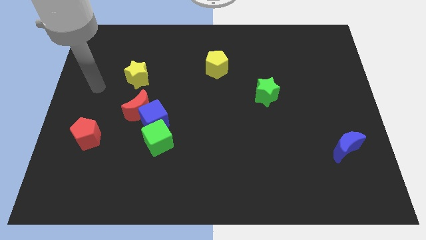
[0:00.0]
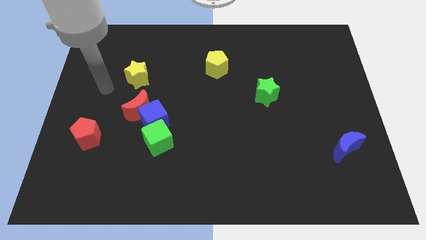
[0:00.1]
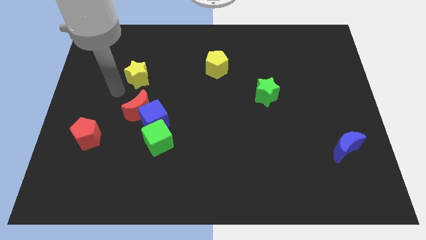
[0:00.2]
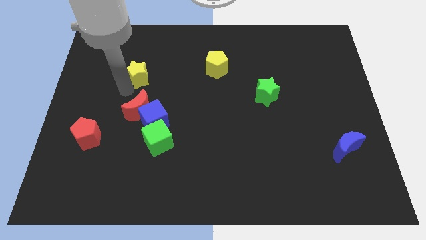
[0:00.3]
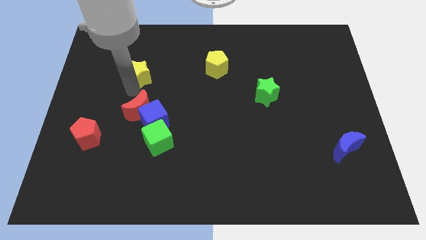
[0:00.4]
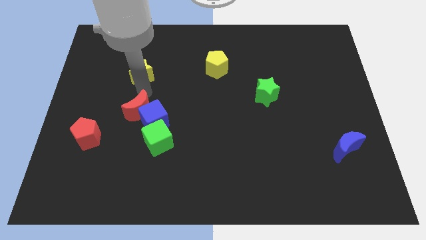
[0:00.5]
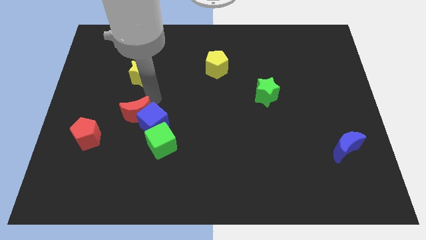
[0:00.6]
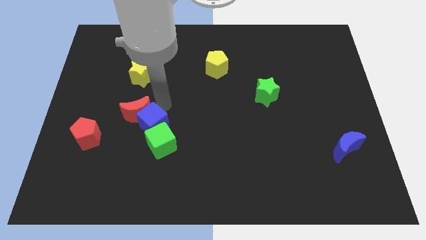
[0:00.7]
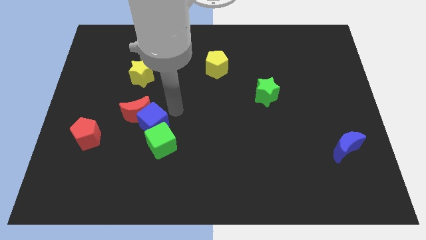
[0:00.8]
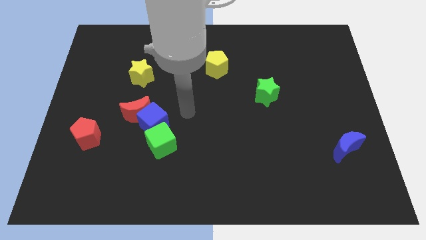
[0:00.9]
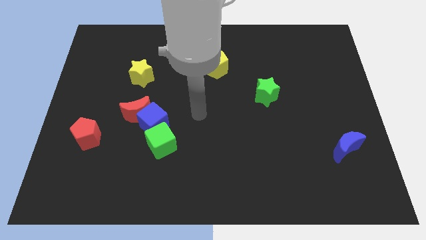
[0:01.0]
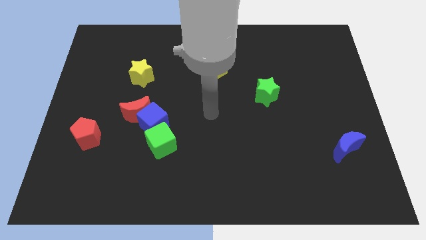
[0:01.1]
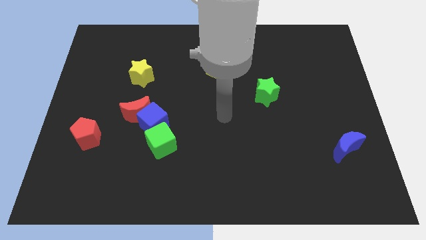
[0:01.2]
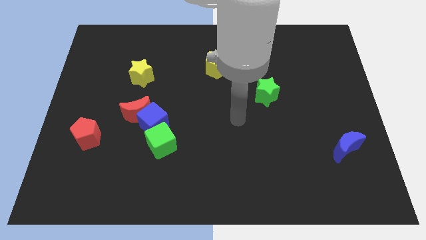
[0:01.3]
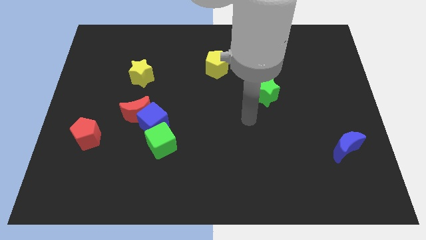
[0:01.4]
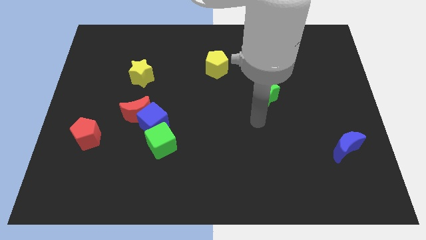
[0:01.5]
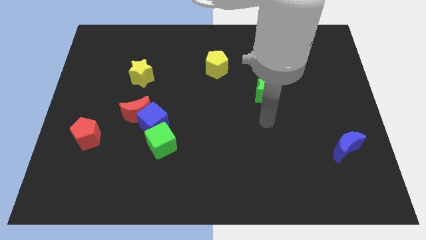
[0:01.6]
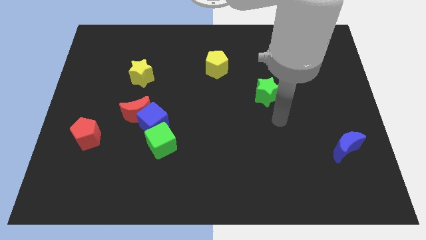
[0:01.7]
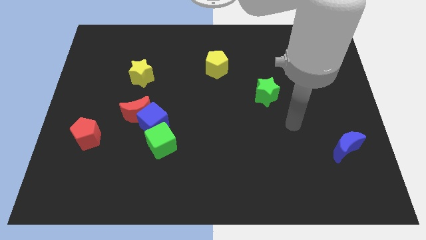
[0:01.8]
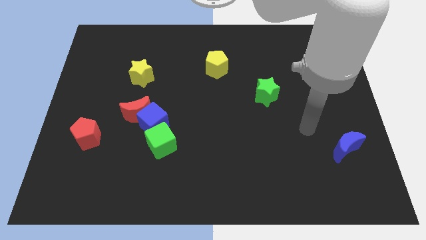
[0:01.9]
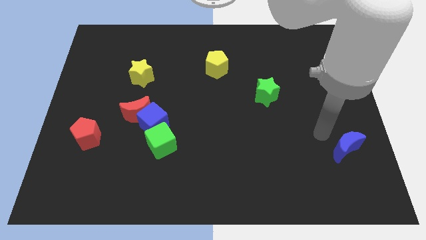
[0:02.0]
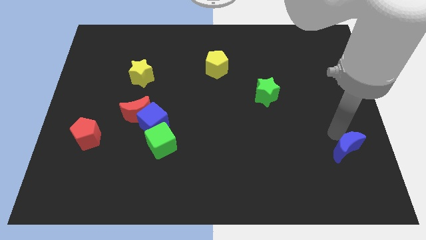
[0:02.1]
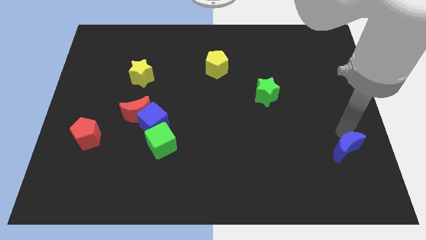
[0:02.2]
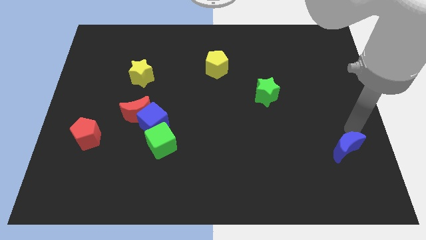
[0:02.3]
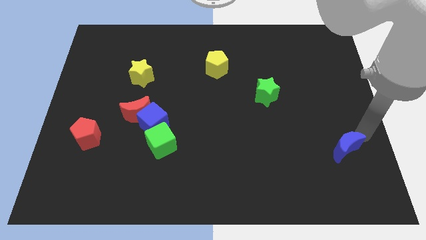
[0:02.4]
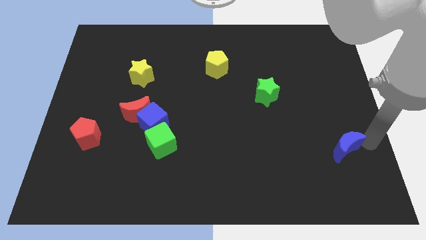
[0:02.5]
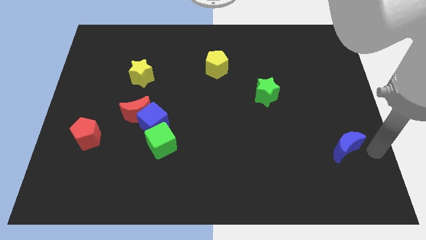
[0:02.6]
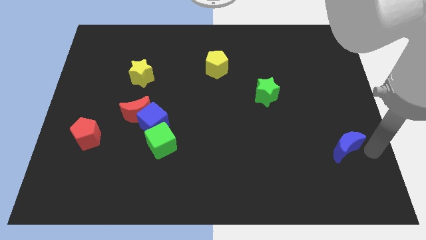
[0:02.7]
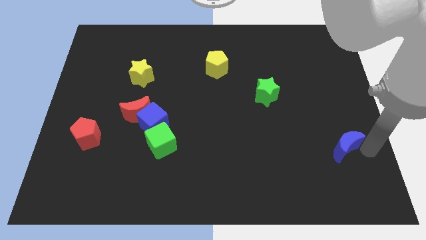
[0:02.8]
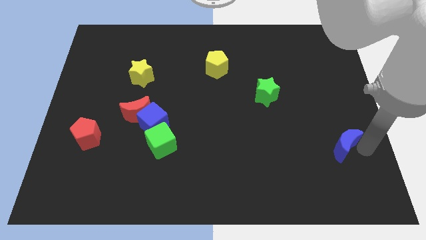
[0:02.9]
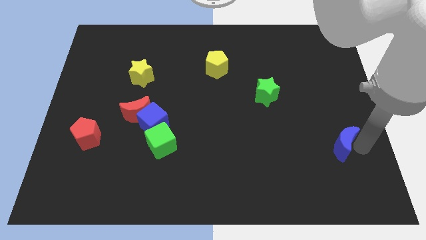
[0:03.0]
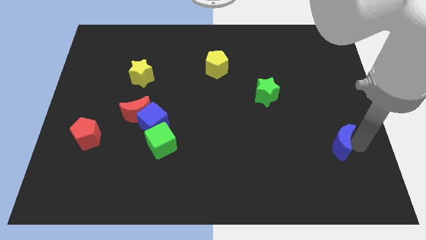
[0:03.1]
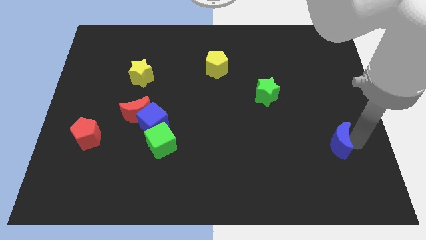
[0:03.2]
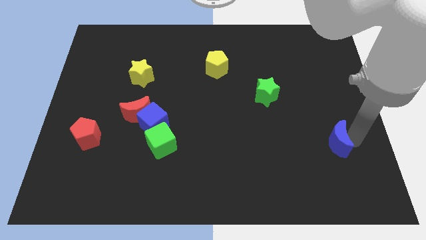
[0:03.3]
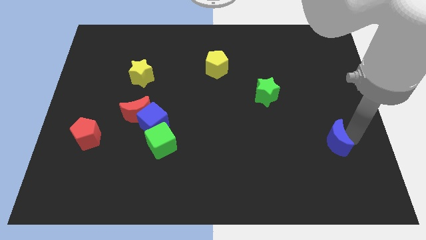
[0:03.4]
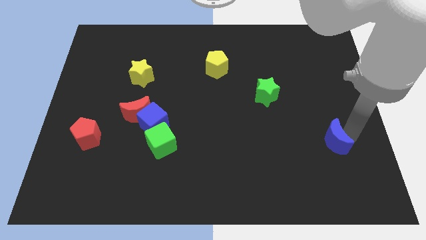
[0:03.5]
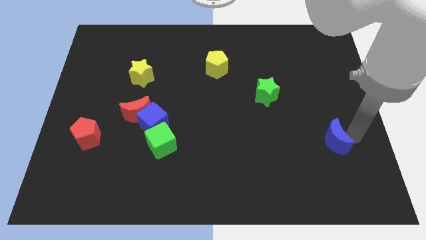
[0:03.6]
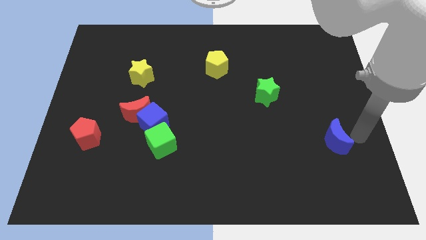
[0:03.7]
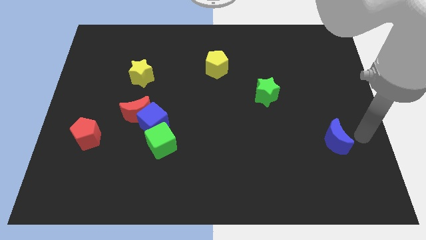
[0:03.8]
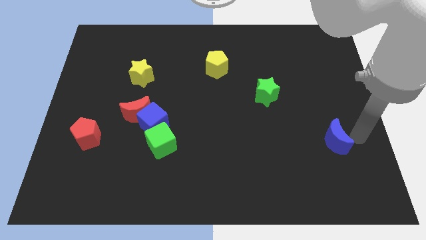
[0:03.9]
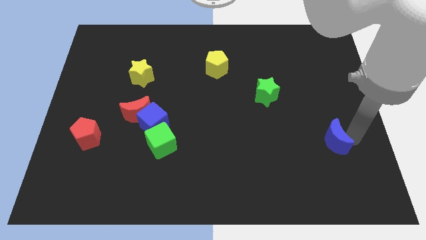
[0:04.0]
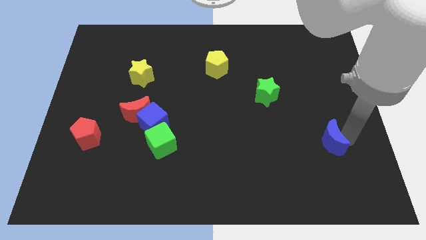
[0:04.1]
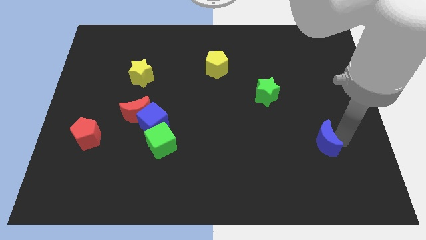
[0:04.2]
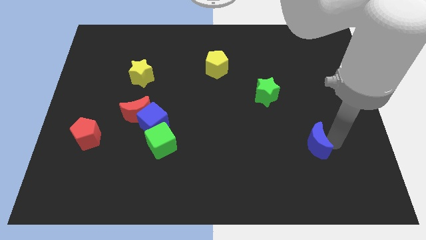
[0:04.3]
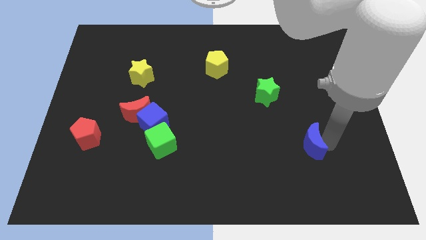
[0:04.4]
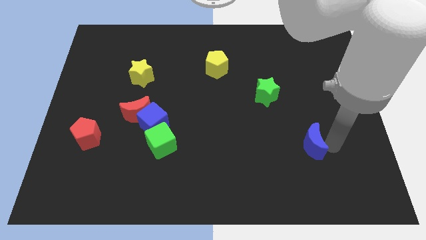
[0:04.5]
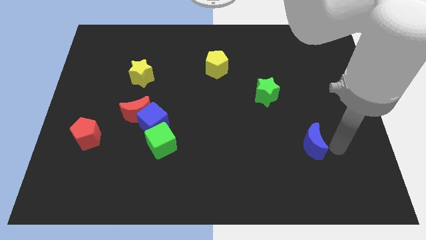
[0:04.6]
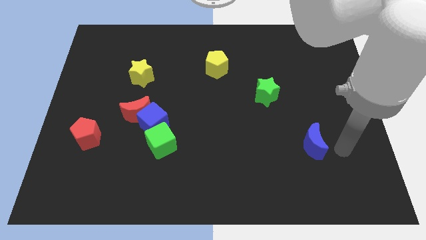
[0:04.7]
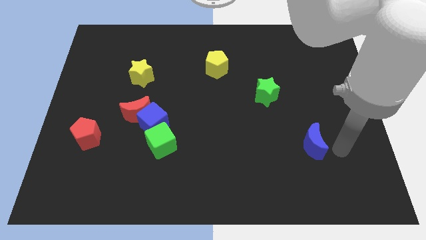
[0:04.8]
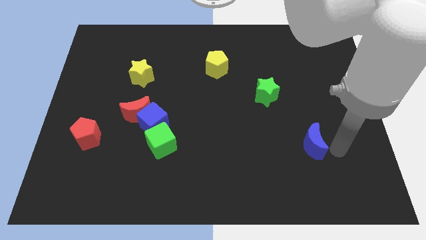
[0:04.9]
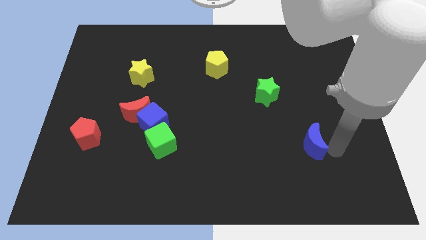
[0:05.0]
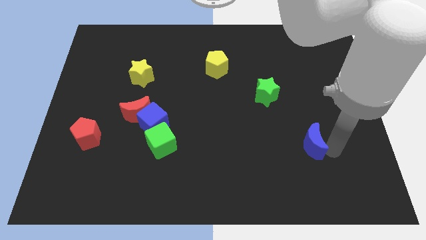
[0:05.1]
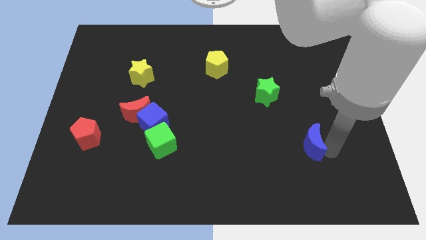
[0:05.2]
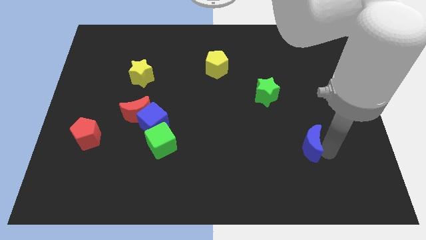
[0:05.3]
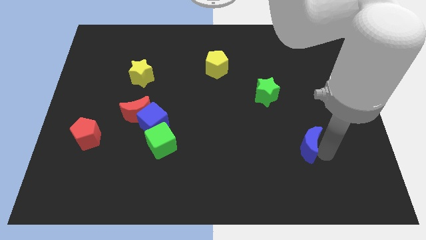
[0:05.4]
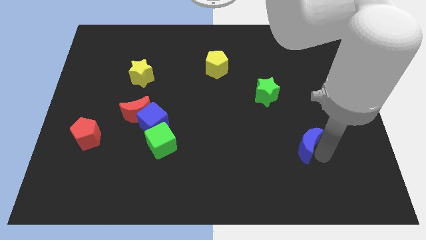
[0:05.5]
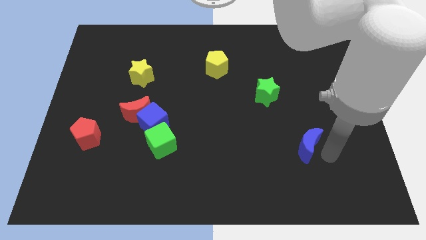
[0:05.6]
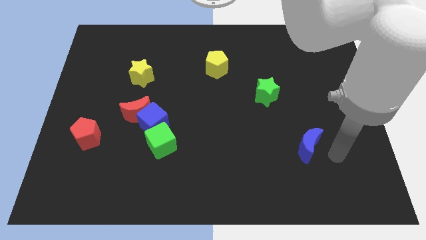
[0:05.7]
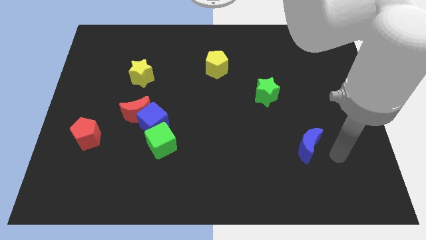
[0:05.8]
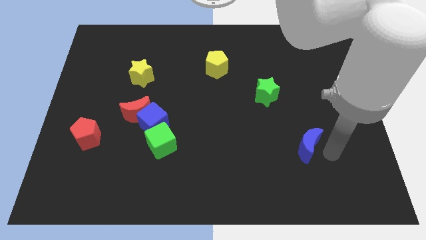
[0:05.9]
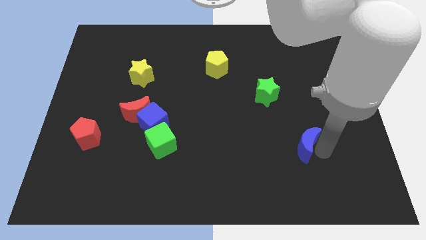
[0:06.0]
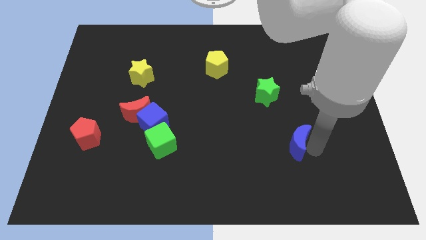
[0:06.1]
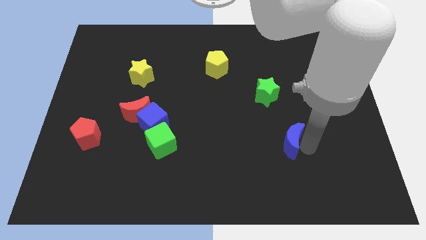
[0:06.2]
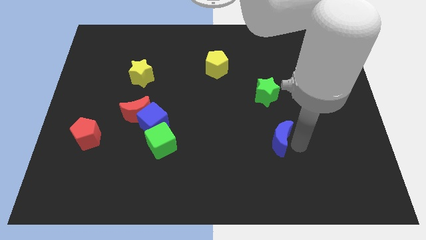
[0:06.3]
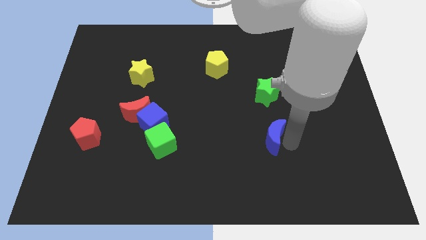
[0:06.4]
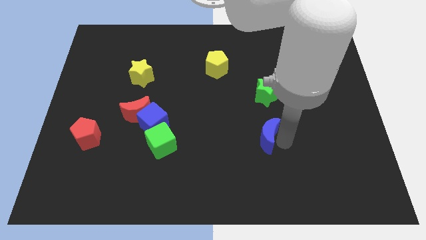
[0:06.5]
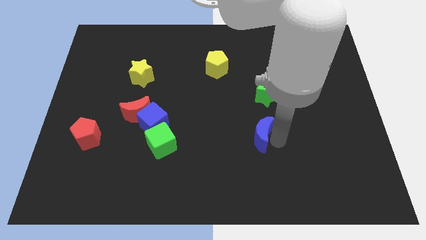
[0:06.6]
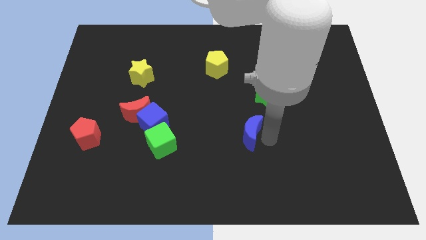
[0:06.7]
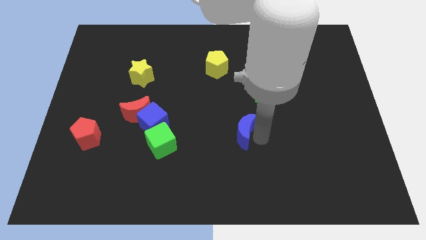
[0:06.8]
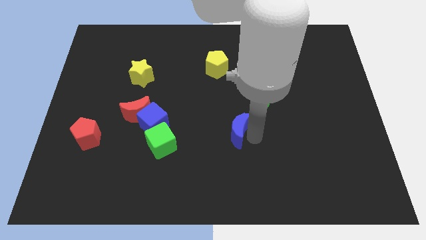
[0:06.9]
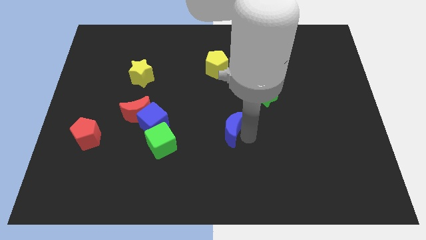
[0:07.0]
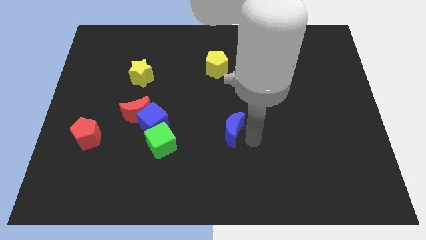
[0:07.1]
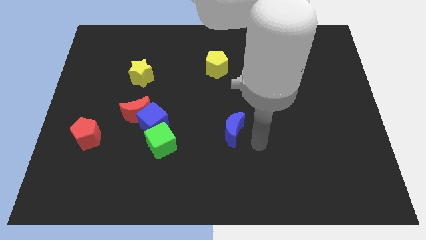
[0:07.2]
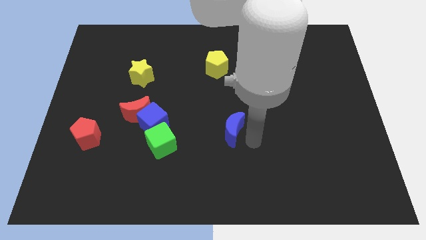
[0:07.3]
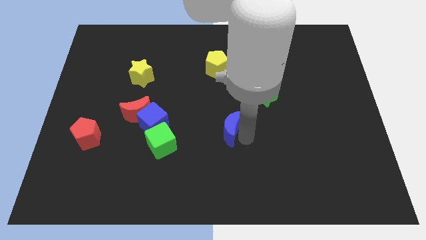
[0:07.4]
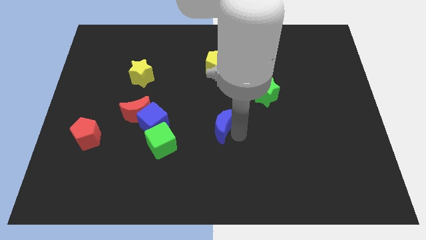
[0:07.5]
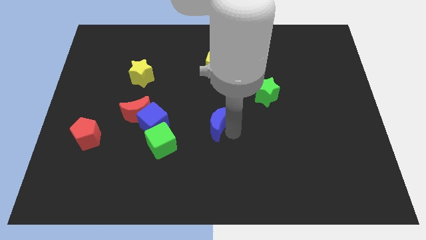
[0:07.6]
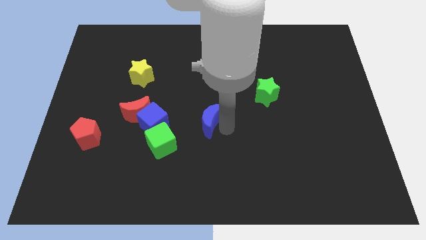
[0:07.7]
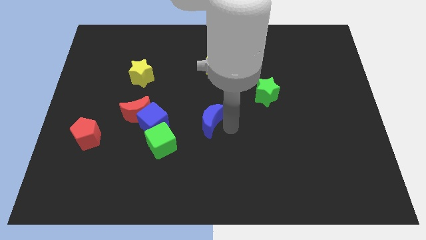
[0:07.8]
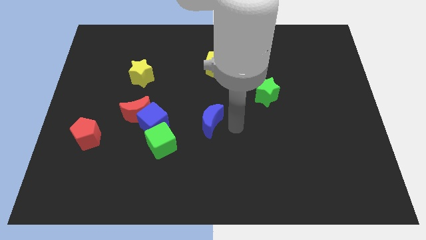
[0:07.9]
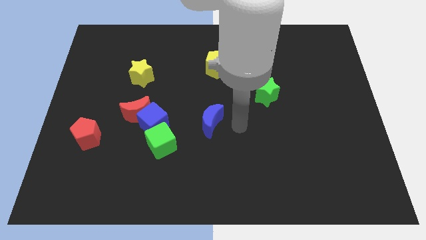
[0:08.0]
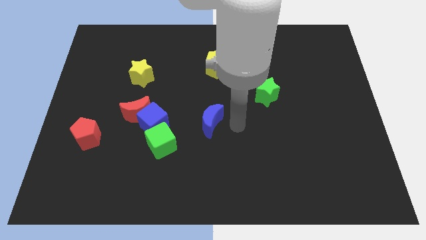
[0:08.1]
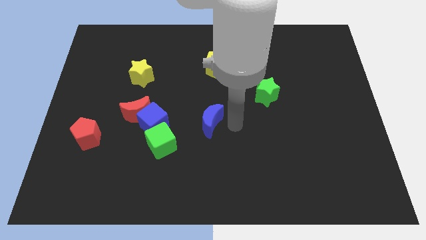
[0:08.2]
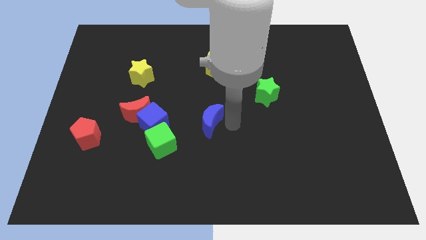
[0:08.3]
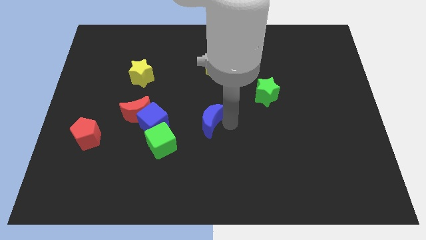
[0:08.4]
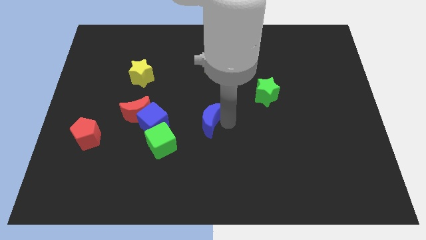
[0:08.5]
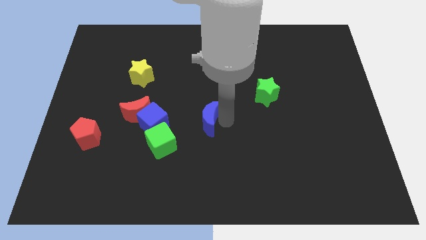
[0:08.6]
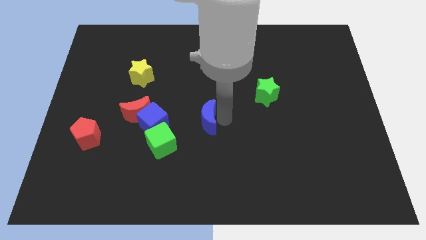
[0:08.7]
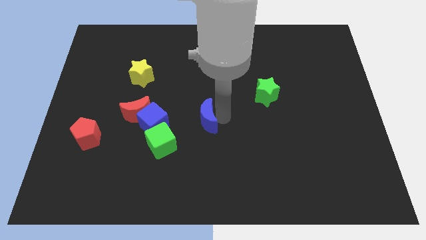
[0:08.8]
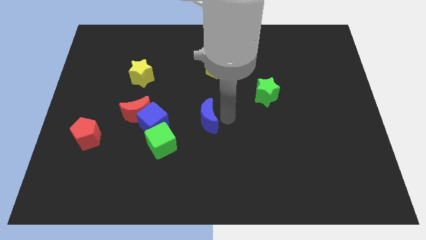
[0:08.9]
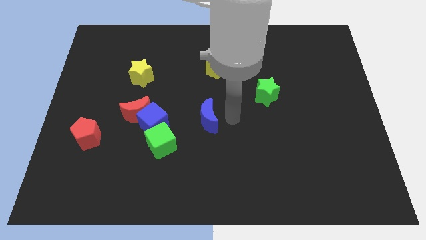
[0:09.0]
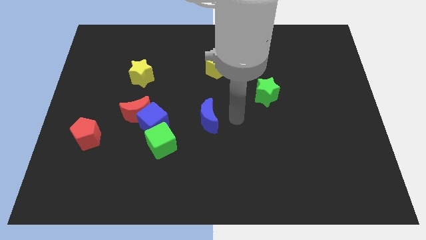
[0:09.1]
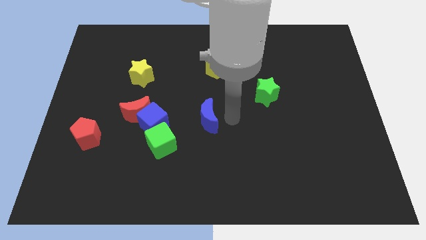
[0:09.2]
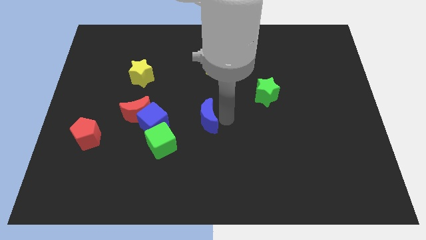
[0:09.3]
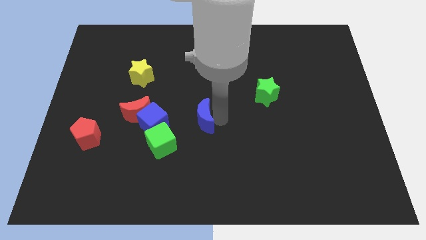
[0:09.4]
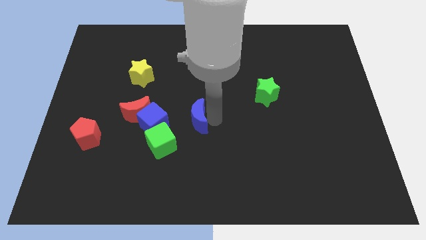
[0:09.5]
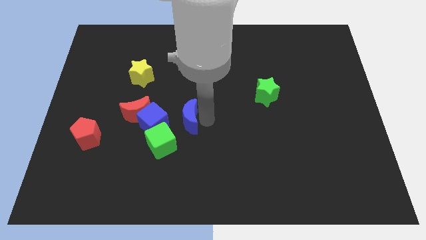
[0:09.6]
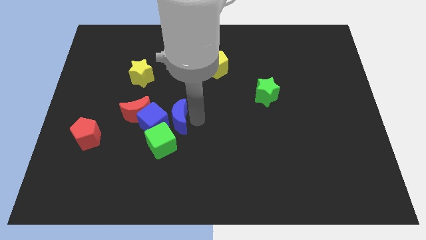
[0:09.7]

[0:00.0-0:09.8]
put the blue moon next to the blue cube
